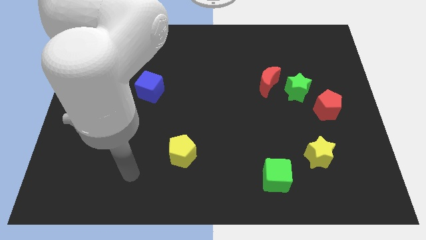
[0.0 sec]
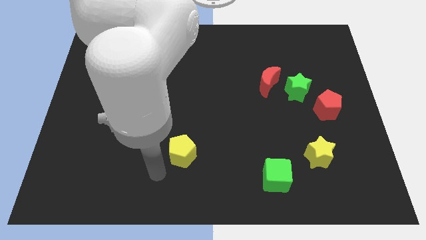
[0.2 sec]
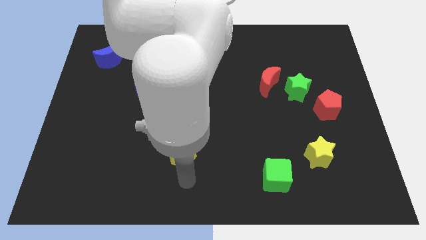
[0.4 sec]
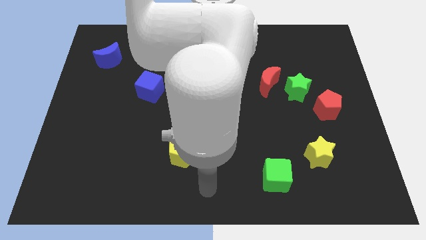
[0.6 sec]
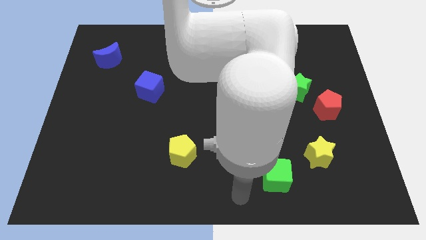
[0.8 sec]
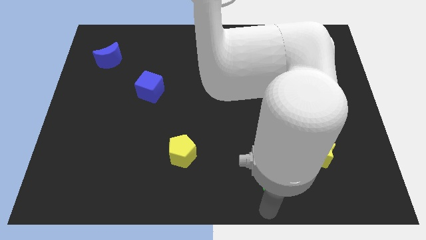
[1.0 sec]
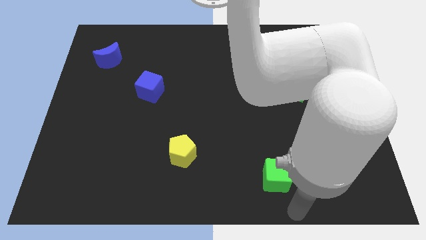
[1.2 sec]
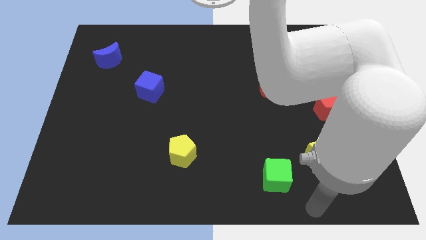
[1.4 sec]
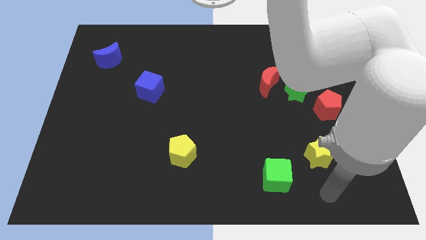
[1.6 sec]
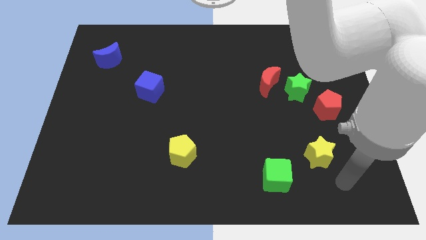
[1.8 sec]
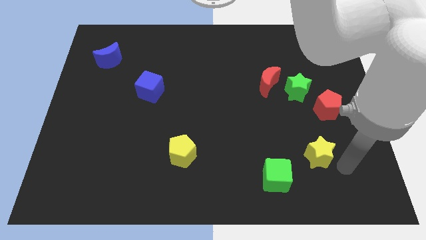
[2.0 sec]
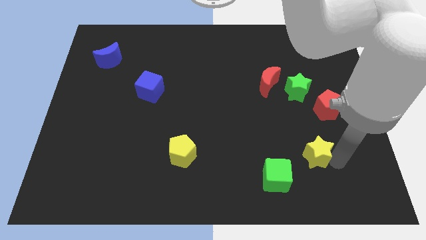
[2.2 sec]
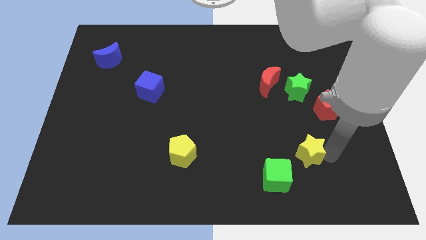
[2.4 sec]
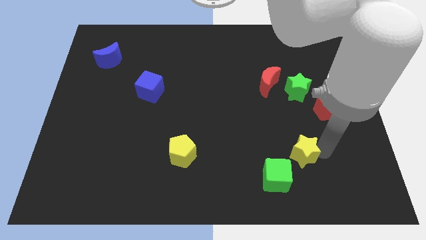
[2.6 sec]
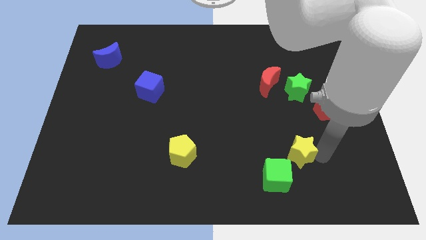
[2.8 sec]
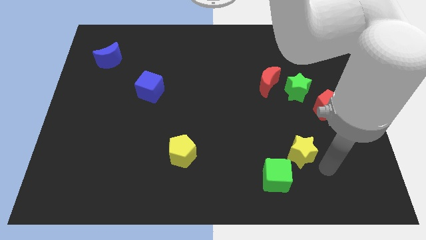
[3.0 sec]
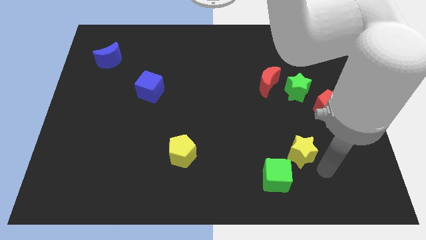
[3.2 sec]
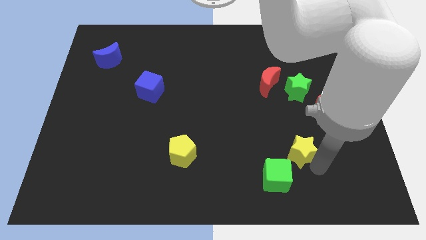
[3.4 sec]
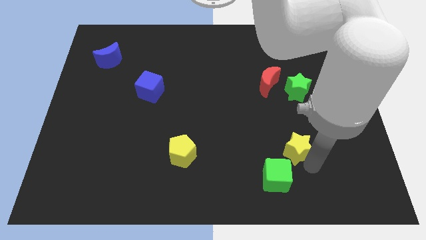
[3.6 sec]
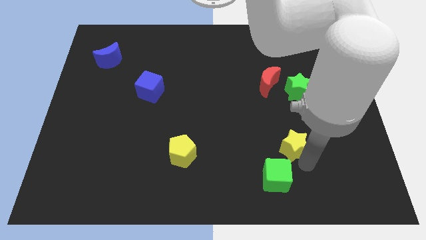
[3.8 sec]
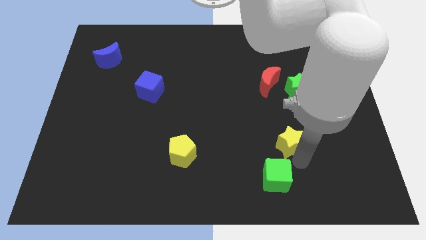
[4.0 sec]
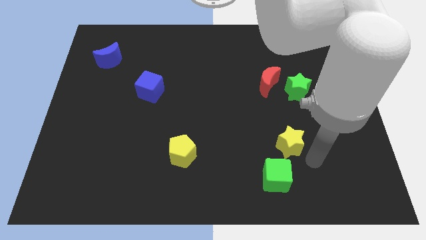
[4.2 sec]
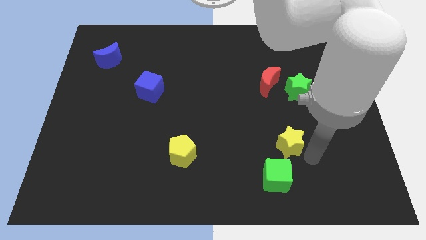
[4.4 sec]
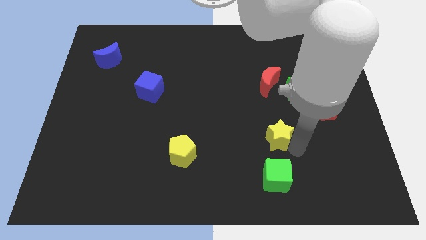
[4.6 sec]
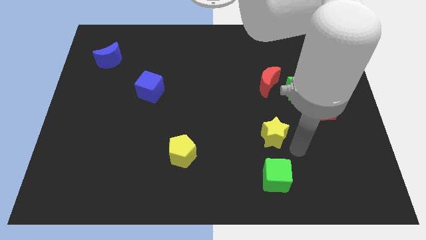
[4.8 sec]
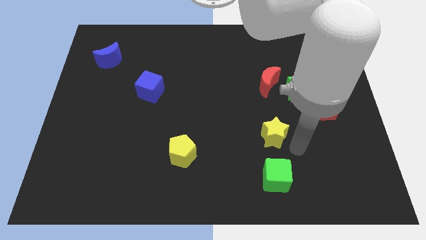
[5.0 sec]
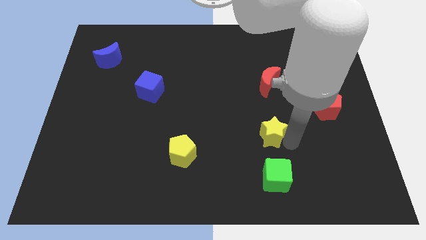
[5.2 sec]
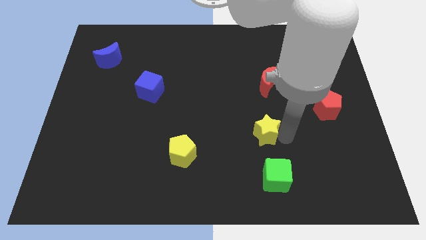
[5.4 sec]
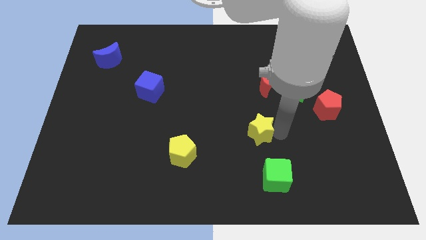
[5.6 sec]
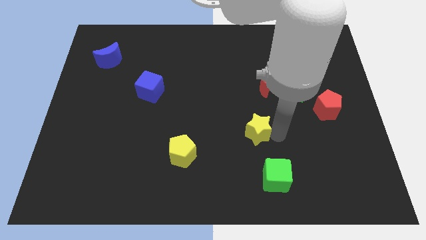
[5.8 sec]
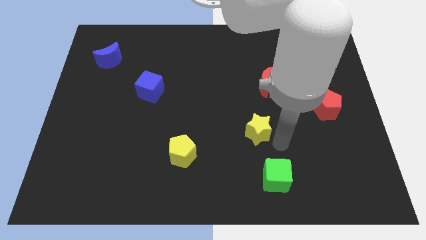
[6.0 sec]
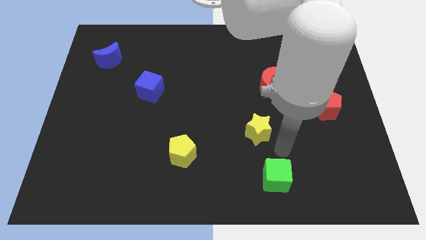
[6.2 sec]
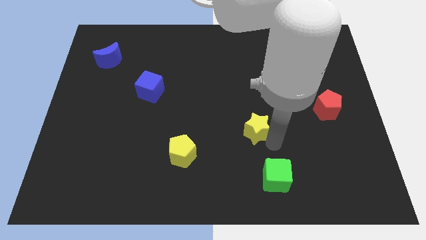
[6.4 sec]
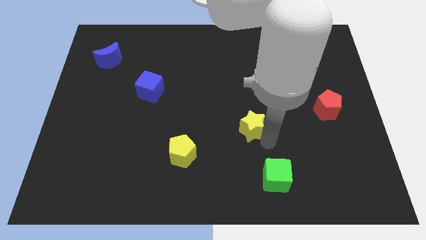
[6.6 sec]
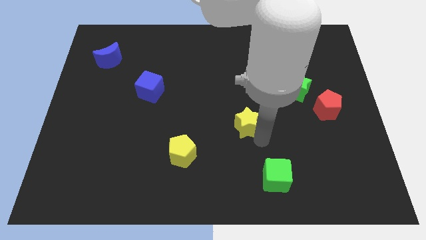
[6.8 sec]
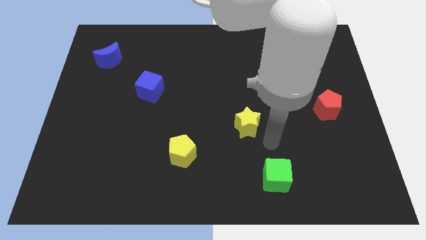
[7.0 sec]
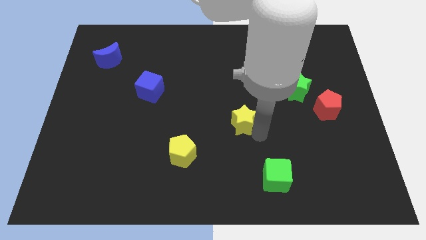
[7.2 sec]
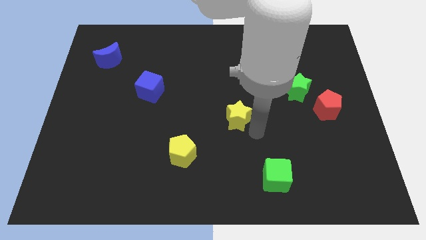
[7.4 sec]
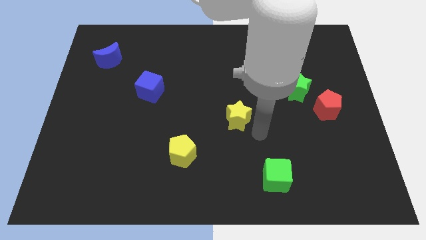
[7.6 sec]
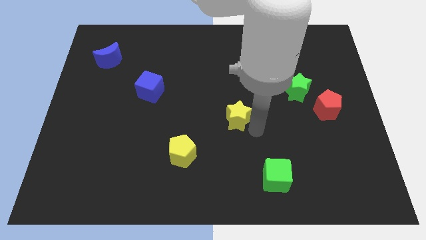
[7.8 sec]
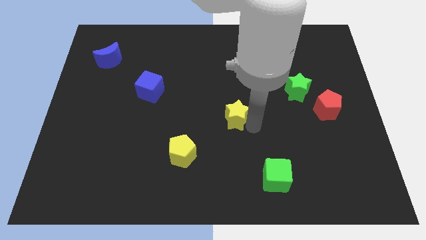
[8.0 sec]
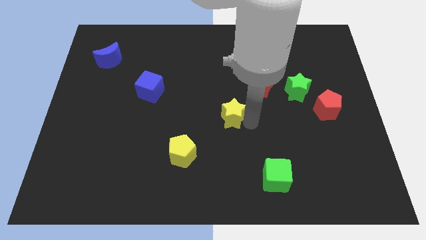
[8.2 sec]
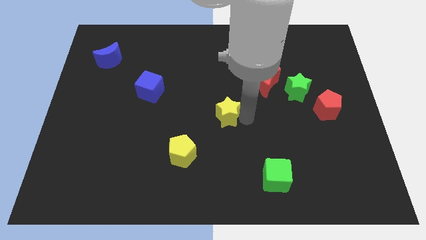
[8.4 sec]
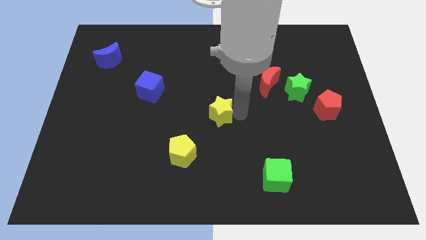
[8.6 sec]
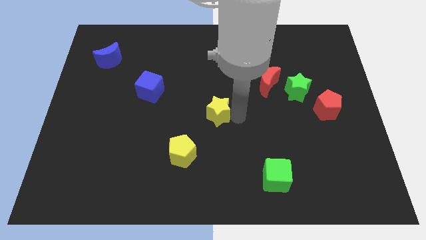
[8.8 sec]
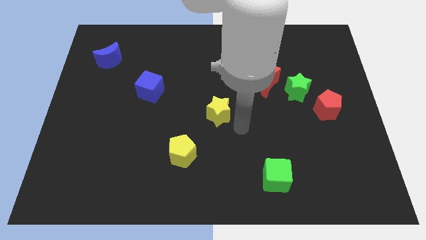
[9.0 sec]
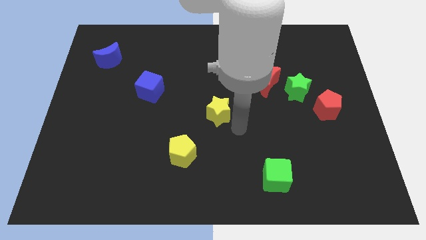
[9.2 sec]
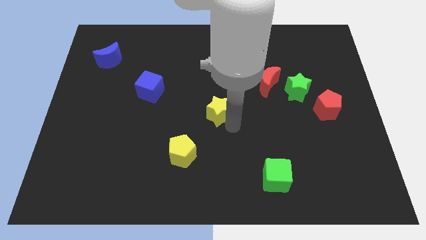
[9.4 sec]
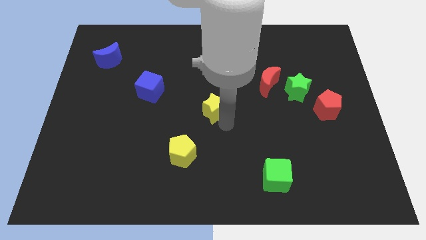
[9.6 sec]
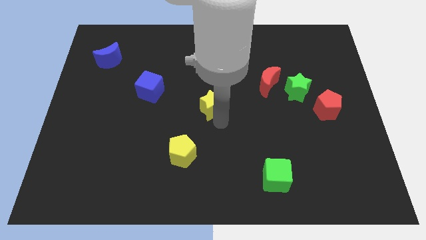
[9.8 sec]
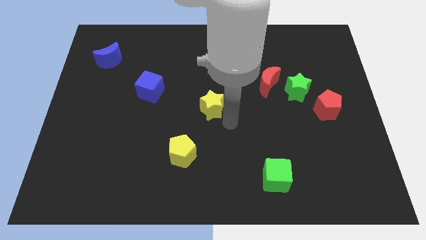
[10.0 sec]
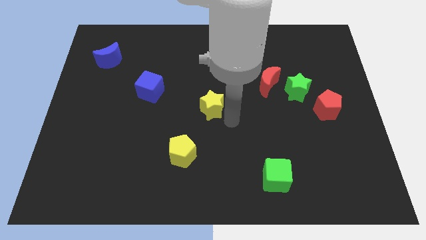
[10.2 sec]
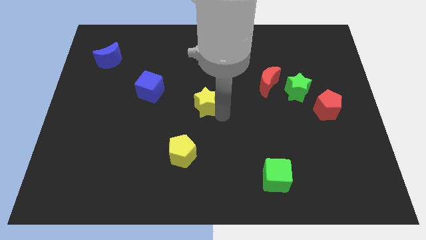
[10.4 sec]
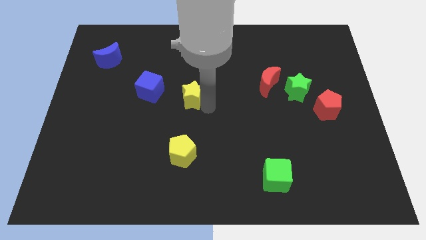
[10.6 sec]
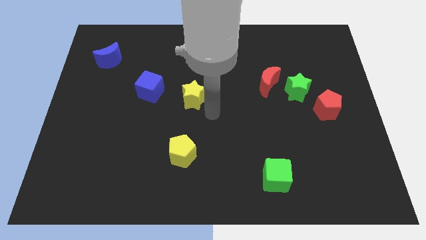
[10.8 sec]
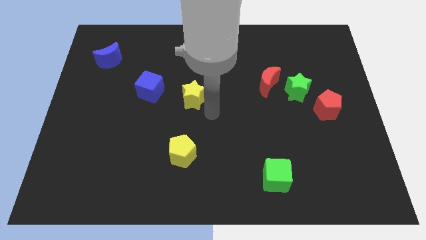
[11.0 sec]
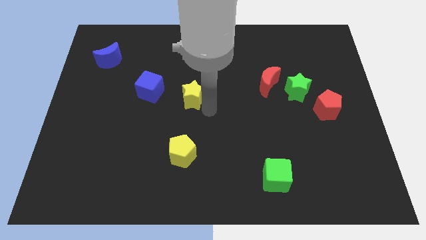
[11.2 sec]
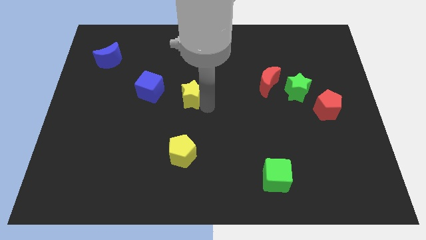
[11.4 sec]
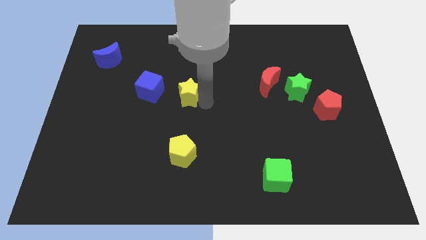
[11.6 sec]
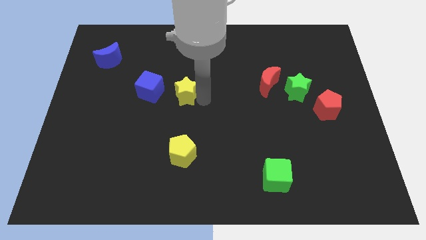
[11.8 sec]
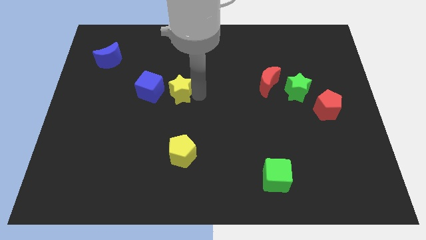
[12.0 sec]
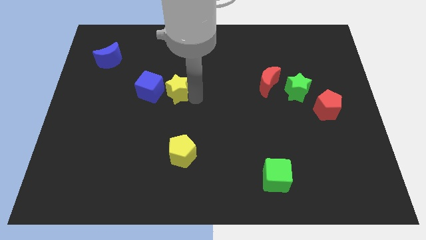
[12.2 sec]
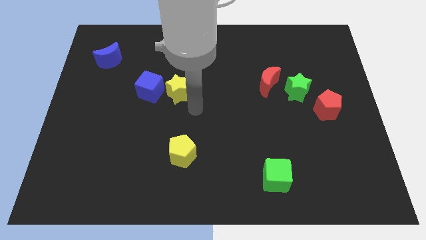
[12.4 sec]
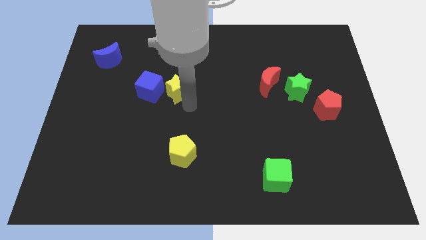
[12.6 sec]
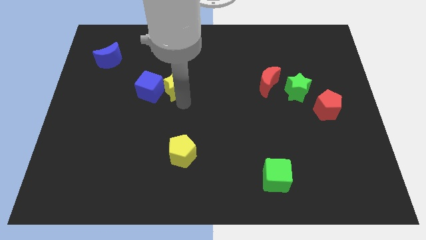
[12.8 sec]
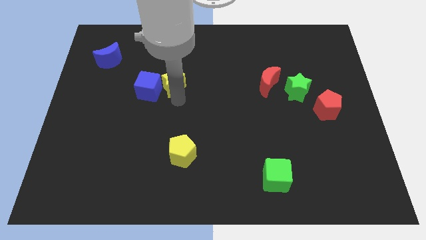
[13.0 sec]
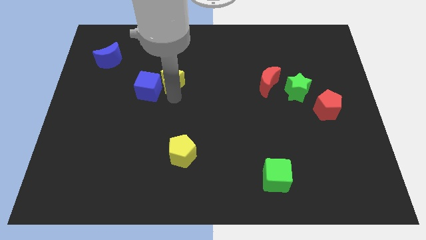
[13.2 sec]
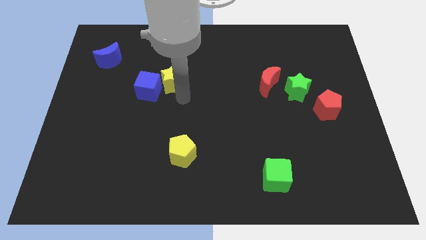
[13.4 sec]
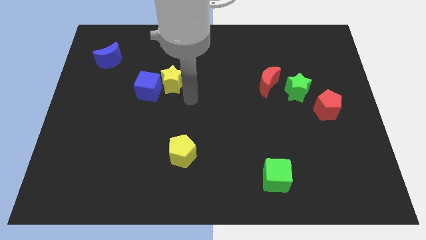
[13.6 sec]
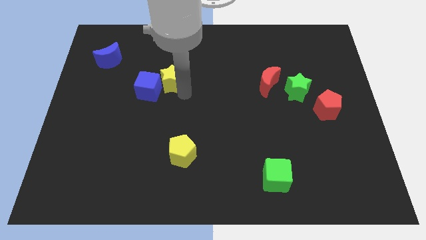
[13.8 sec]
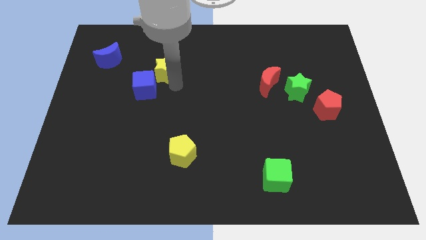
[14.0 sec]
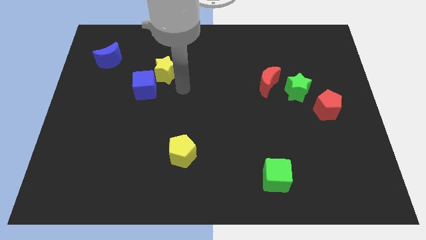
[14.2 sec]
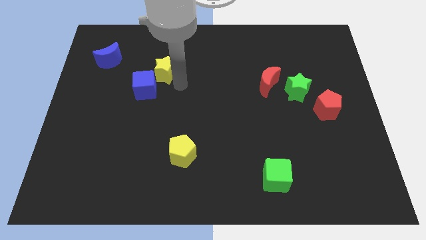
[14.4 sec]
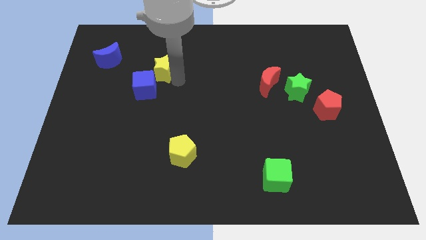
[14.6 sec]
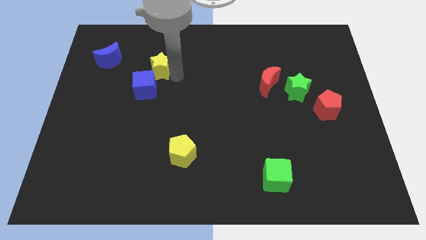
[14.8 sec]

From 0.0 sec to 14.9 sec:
slide the yellow star right of the blue moon
